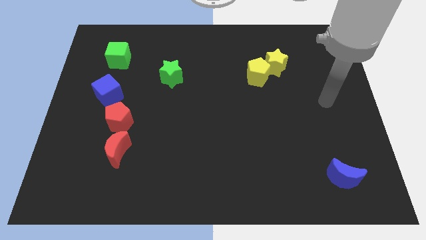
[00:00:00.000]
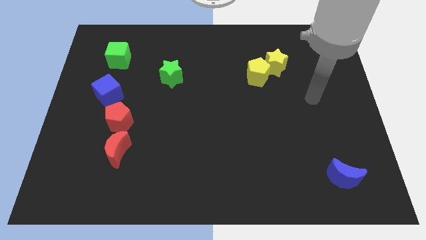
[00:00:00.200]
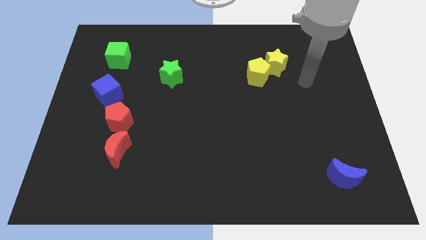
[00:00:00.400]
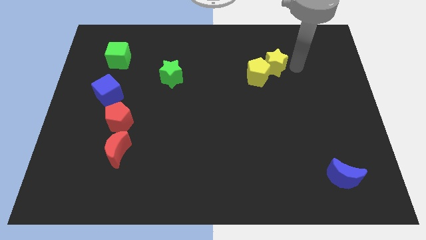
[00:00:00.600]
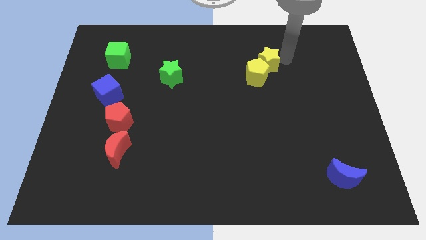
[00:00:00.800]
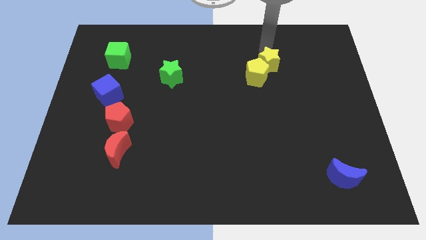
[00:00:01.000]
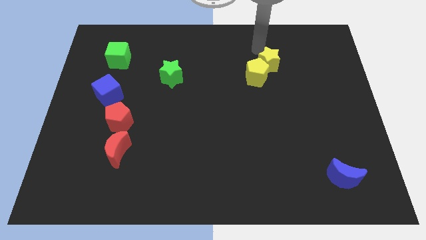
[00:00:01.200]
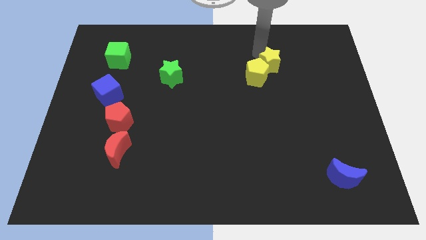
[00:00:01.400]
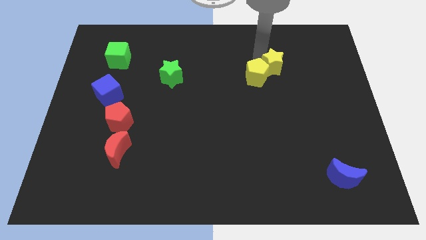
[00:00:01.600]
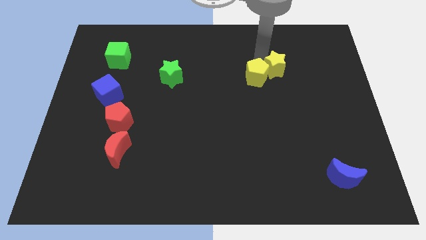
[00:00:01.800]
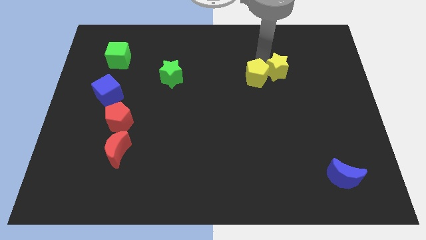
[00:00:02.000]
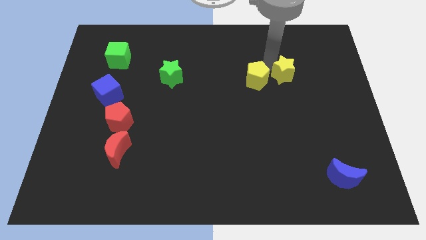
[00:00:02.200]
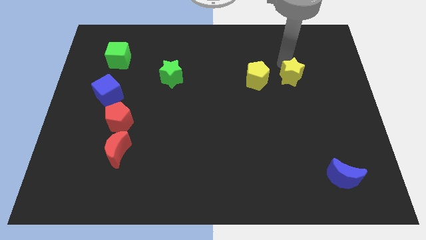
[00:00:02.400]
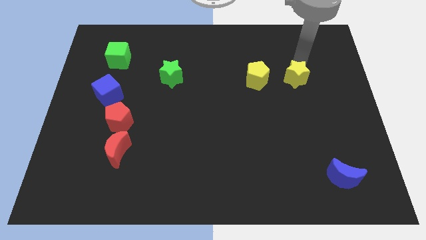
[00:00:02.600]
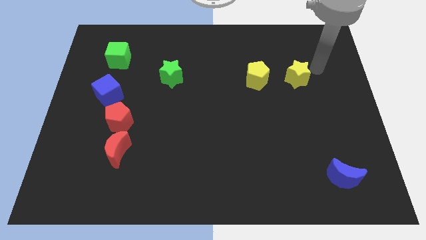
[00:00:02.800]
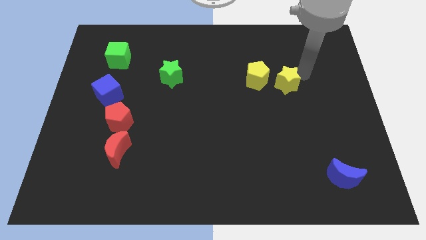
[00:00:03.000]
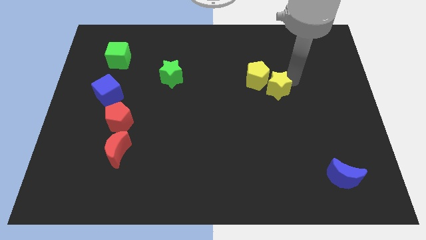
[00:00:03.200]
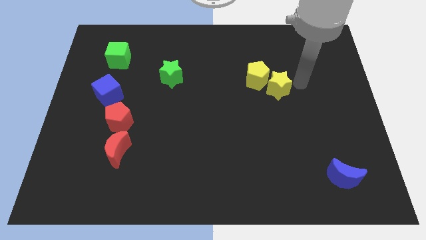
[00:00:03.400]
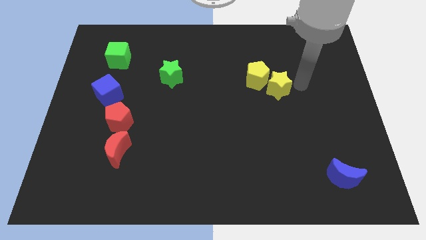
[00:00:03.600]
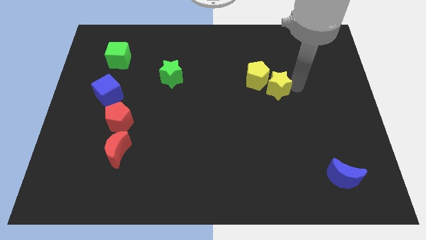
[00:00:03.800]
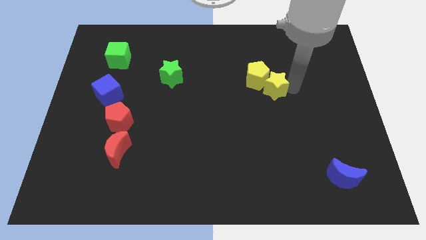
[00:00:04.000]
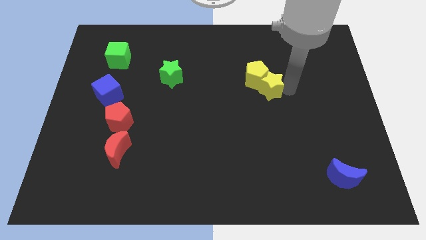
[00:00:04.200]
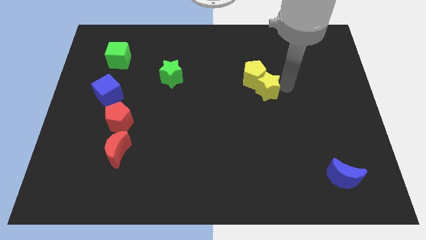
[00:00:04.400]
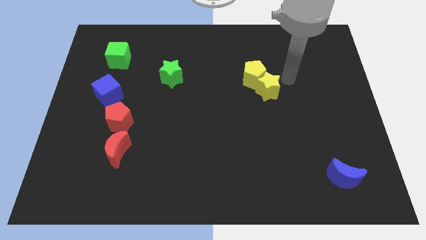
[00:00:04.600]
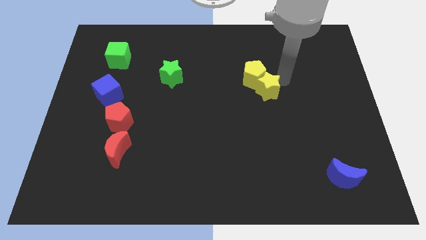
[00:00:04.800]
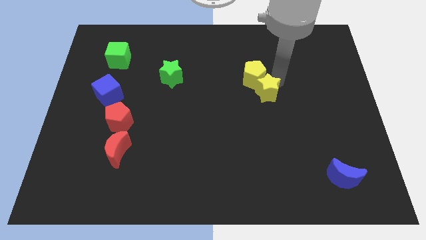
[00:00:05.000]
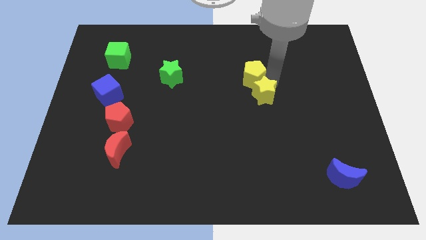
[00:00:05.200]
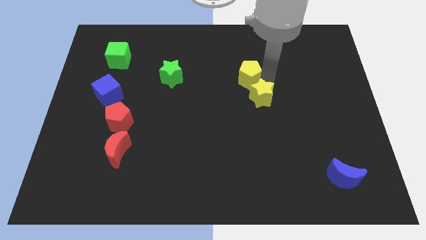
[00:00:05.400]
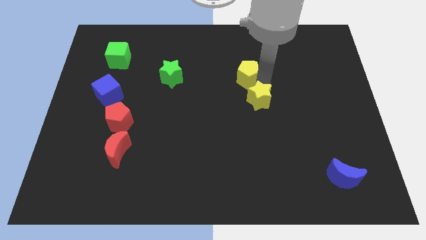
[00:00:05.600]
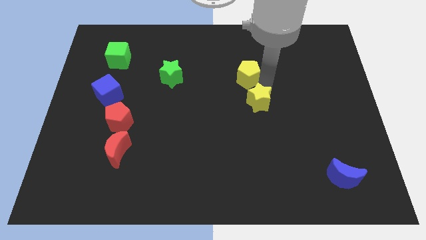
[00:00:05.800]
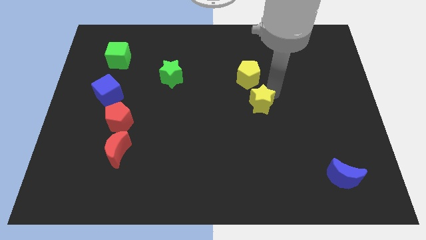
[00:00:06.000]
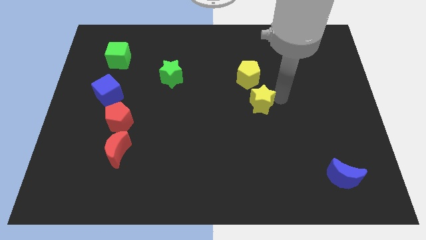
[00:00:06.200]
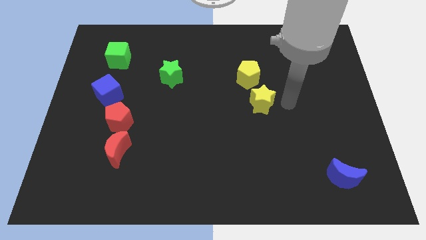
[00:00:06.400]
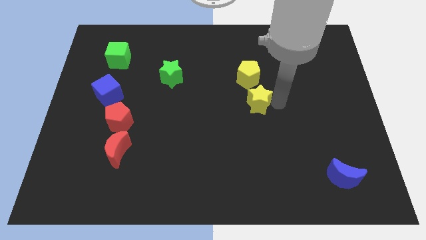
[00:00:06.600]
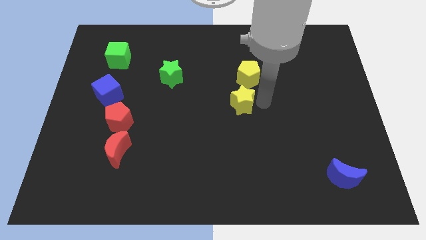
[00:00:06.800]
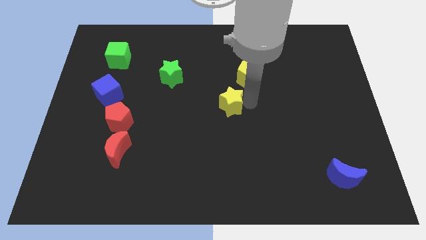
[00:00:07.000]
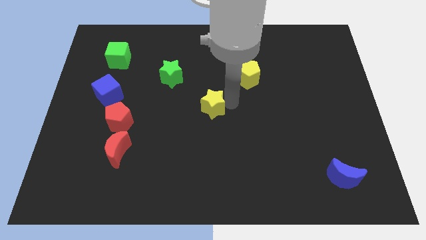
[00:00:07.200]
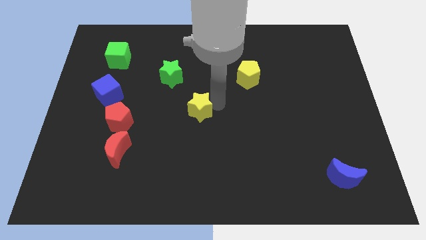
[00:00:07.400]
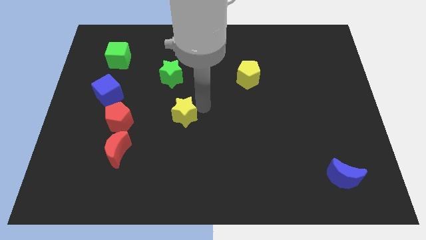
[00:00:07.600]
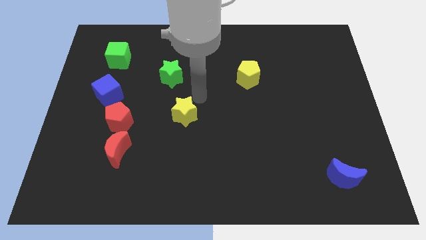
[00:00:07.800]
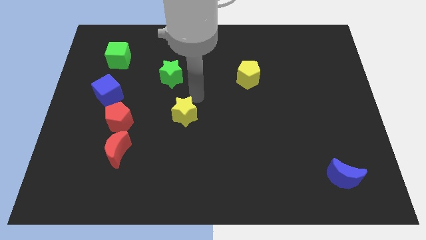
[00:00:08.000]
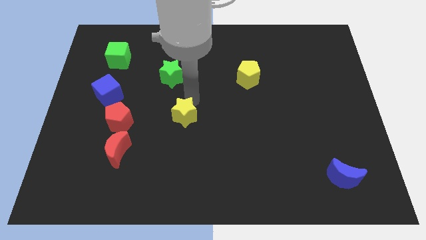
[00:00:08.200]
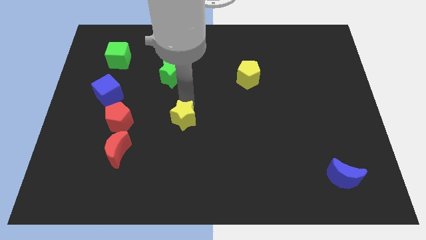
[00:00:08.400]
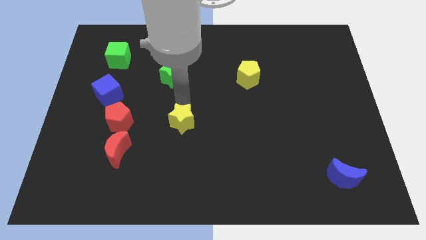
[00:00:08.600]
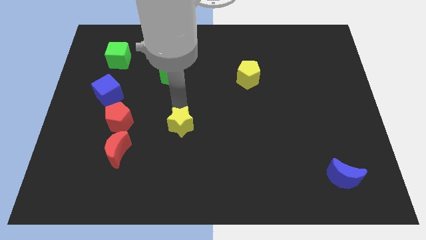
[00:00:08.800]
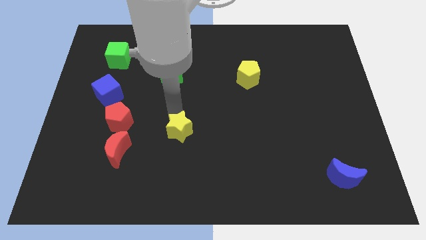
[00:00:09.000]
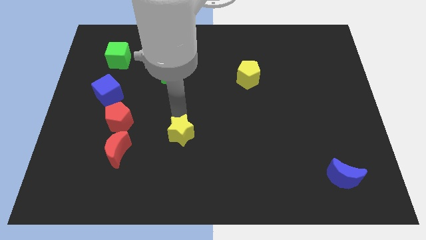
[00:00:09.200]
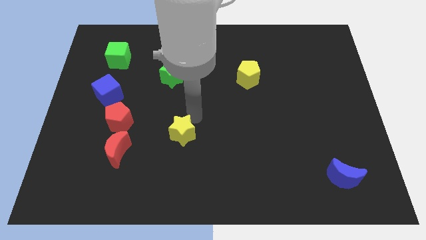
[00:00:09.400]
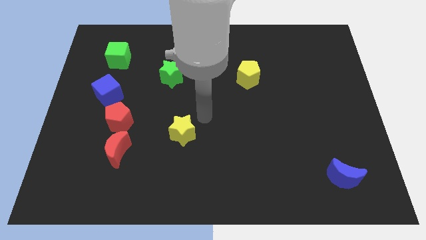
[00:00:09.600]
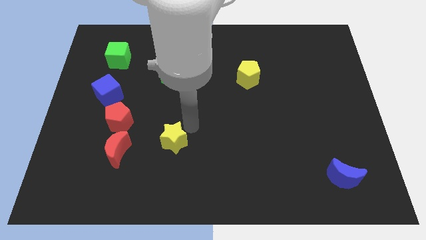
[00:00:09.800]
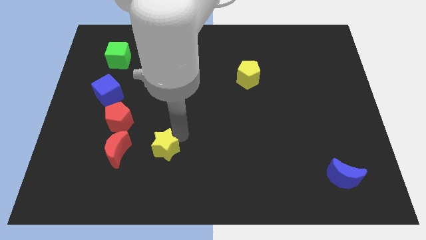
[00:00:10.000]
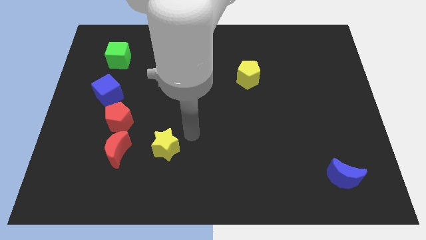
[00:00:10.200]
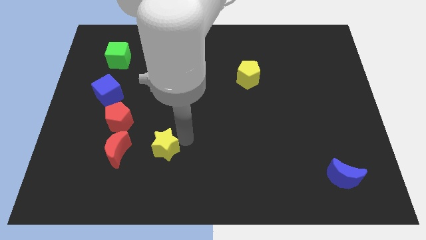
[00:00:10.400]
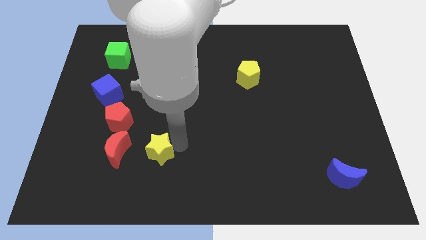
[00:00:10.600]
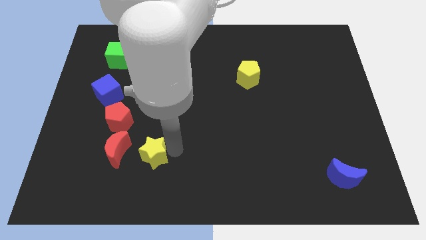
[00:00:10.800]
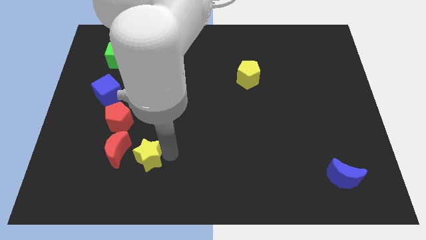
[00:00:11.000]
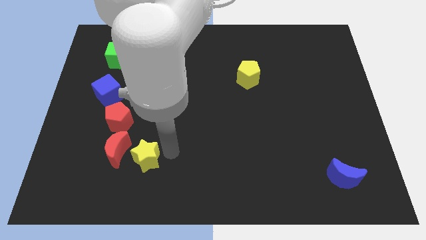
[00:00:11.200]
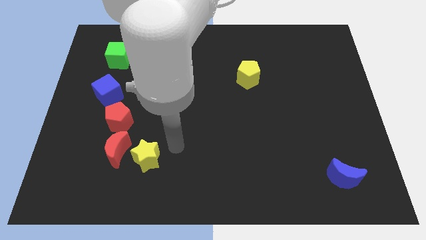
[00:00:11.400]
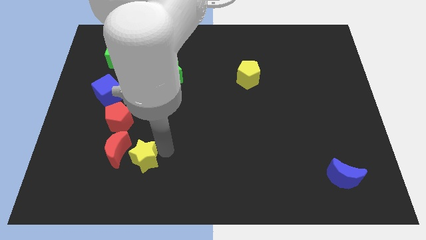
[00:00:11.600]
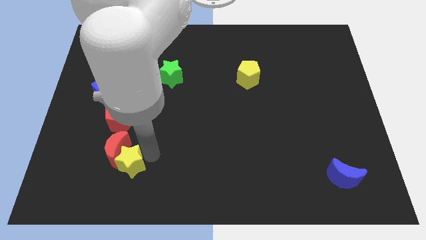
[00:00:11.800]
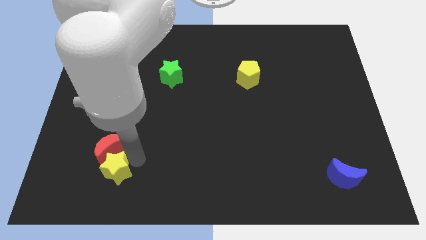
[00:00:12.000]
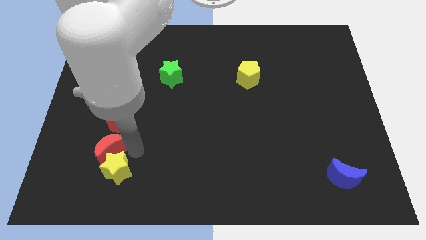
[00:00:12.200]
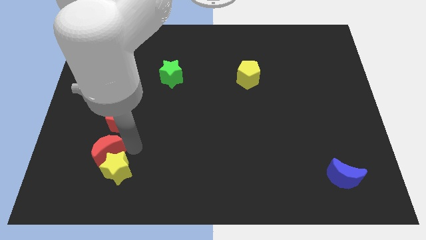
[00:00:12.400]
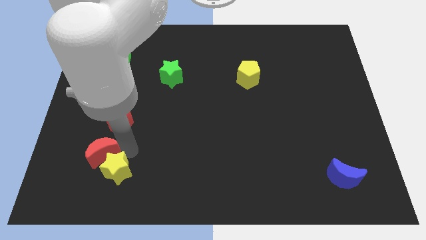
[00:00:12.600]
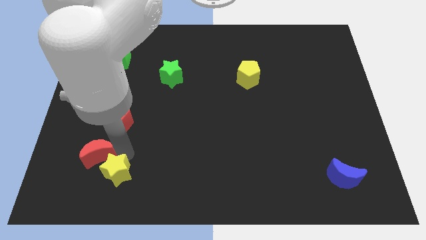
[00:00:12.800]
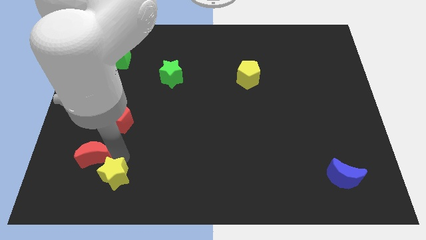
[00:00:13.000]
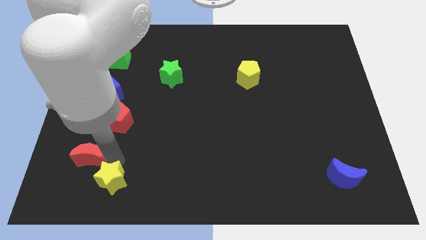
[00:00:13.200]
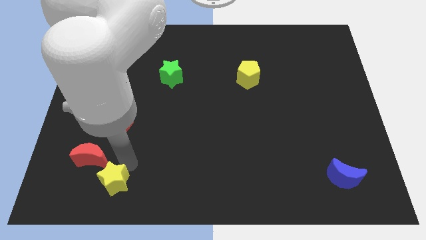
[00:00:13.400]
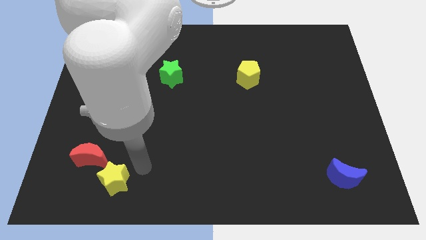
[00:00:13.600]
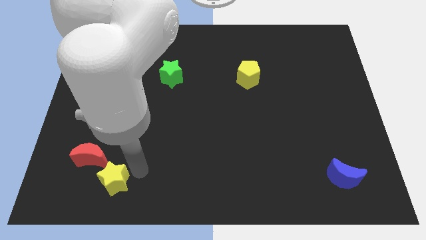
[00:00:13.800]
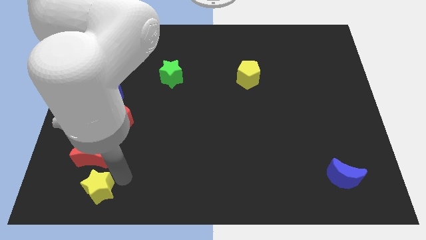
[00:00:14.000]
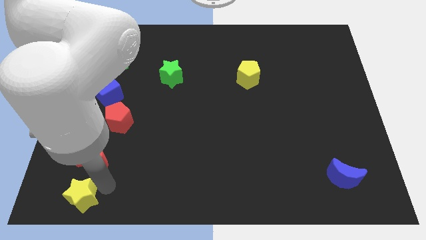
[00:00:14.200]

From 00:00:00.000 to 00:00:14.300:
put the yellow star to the bottom left
